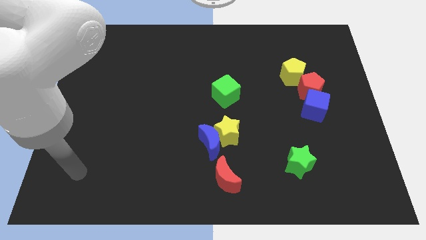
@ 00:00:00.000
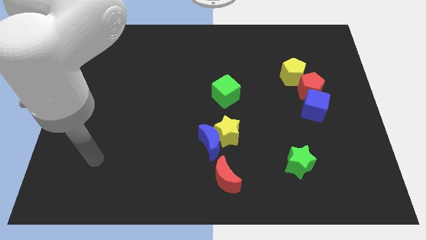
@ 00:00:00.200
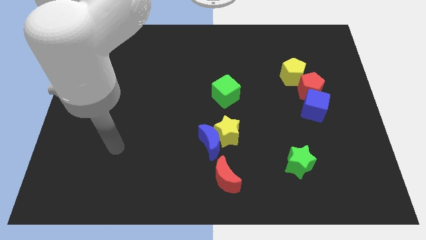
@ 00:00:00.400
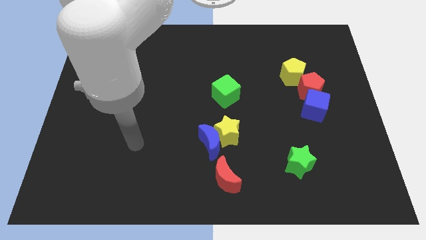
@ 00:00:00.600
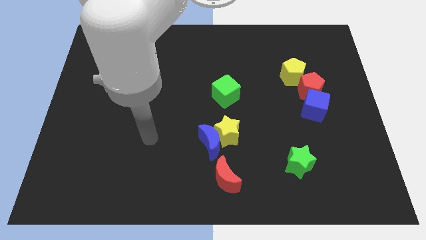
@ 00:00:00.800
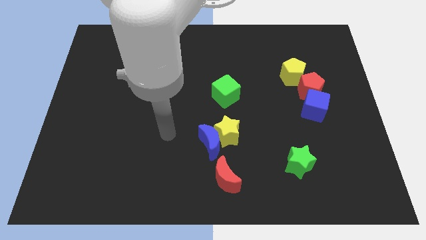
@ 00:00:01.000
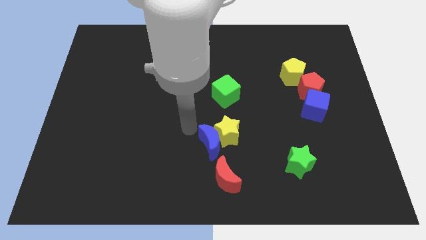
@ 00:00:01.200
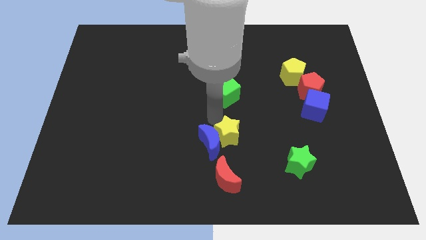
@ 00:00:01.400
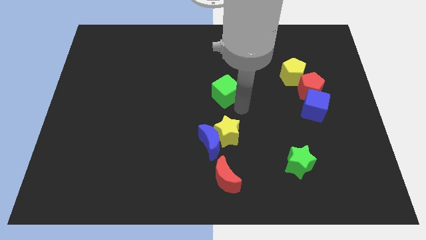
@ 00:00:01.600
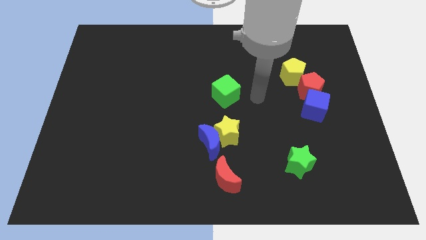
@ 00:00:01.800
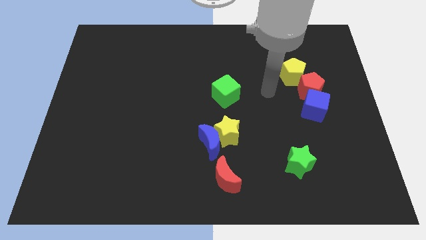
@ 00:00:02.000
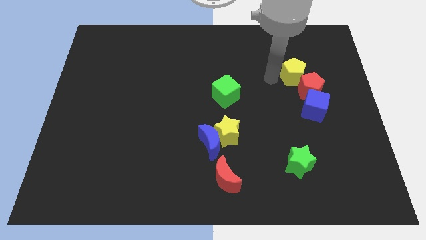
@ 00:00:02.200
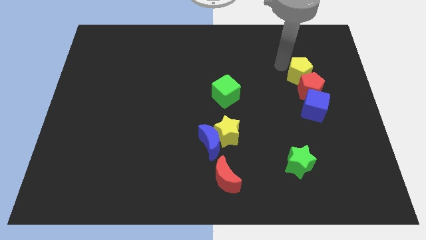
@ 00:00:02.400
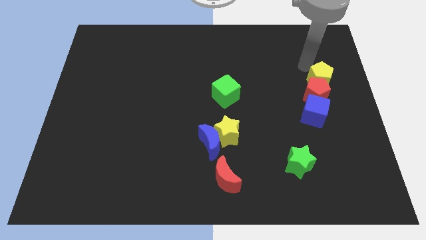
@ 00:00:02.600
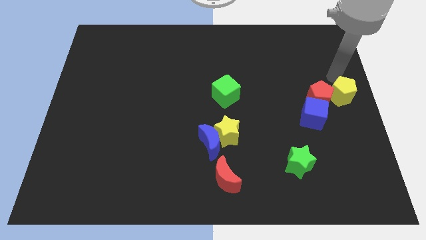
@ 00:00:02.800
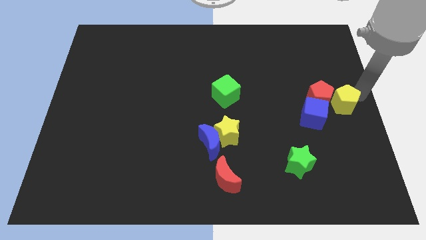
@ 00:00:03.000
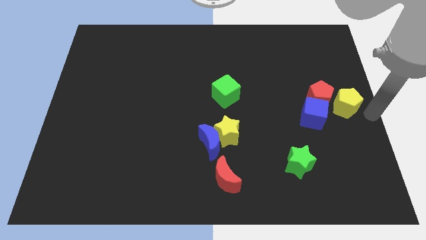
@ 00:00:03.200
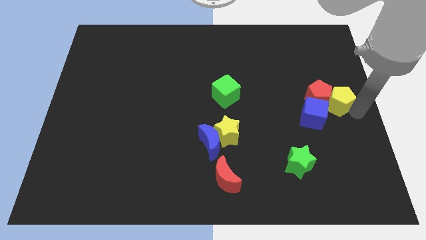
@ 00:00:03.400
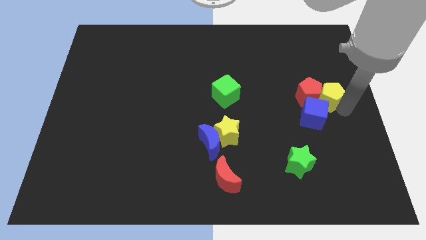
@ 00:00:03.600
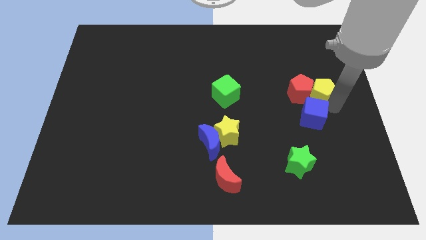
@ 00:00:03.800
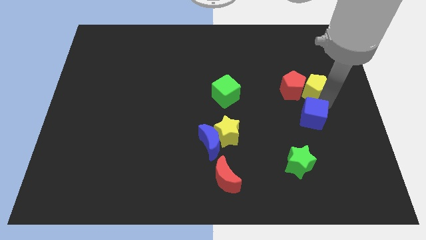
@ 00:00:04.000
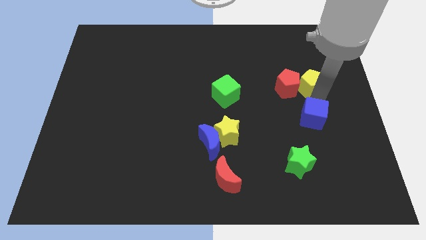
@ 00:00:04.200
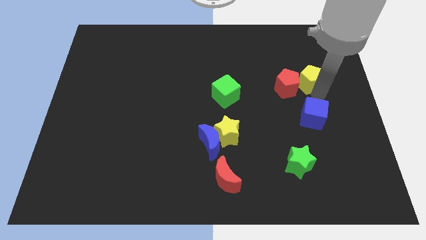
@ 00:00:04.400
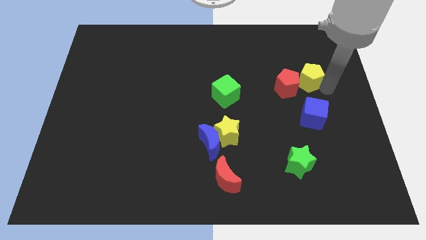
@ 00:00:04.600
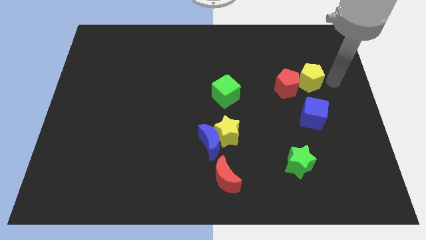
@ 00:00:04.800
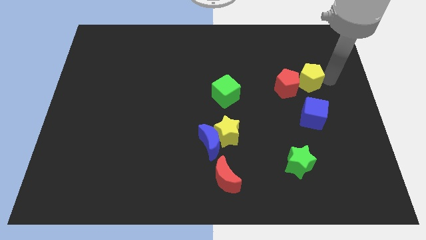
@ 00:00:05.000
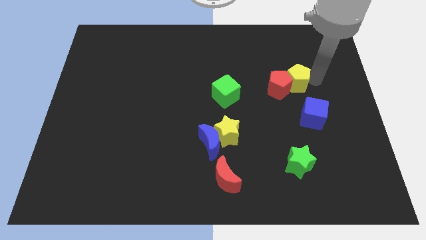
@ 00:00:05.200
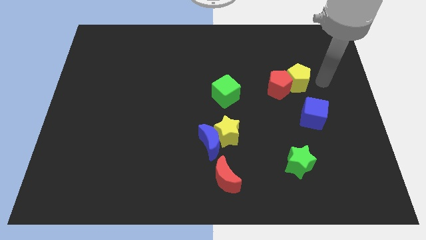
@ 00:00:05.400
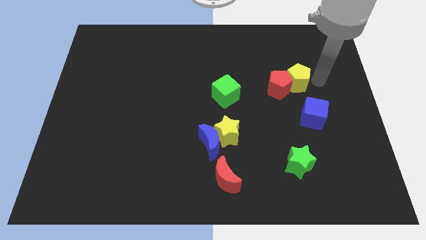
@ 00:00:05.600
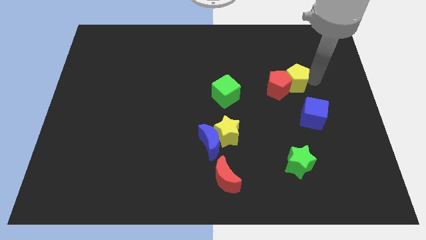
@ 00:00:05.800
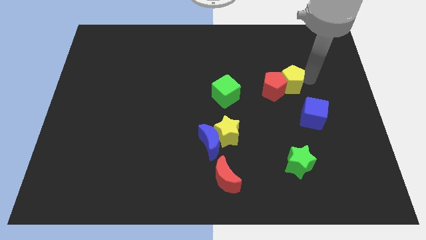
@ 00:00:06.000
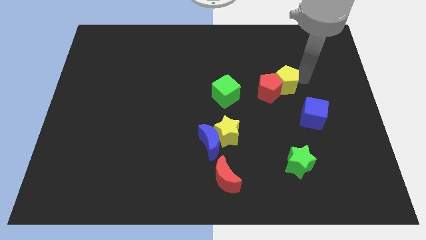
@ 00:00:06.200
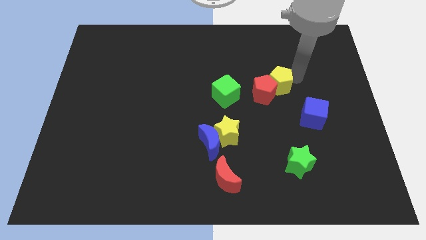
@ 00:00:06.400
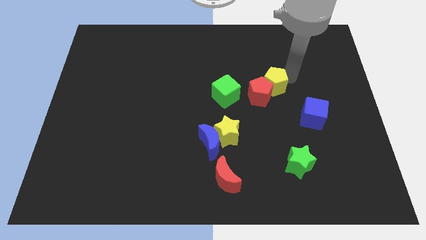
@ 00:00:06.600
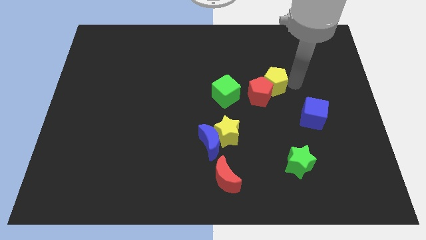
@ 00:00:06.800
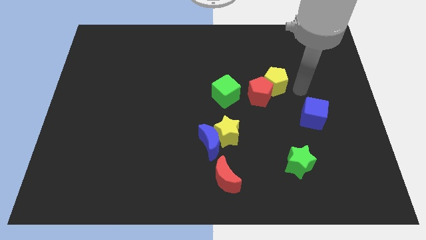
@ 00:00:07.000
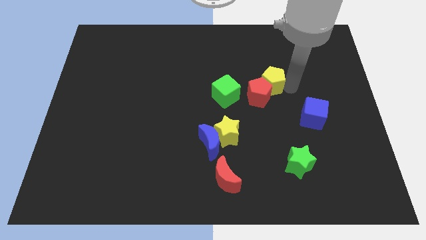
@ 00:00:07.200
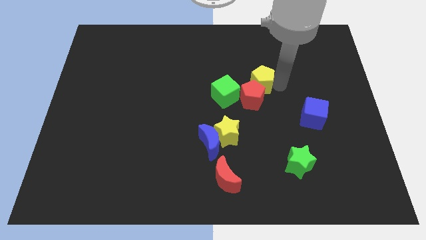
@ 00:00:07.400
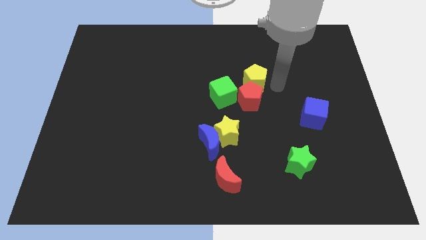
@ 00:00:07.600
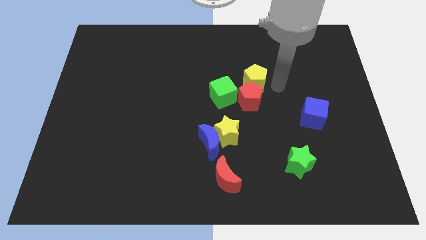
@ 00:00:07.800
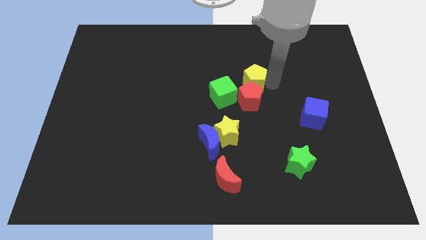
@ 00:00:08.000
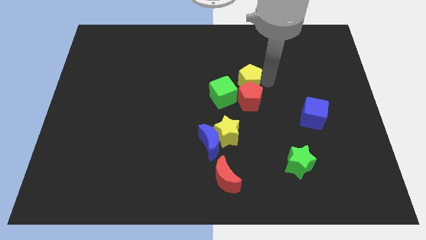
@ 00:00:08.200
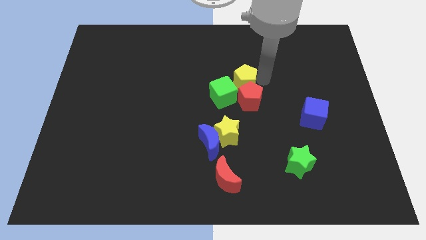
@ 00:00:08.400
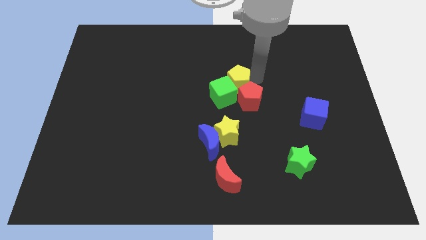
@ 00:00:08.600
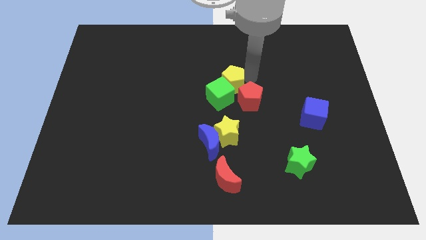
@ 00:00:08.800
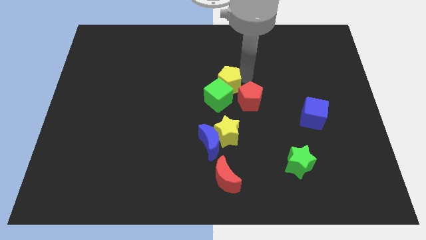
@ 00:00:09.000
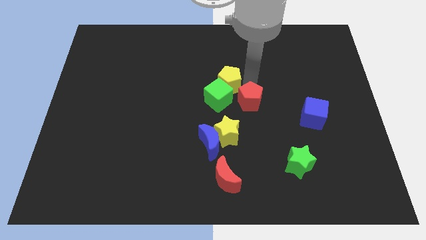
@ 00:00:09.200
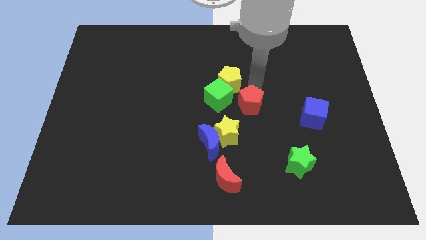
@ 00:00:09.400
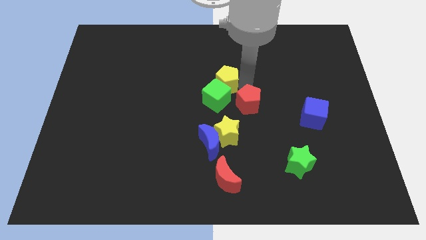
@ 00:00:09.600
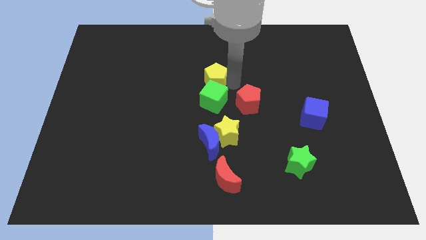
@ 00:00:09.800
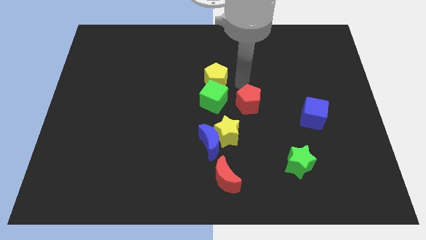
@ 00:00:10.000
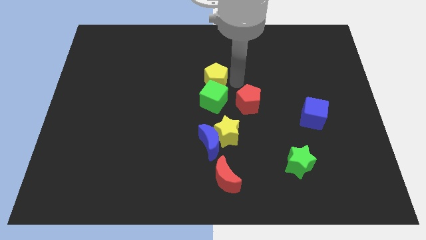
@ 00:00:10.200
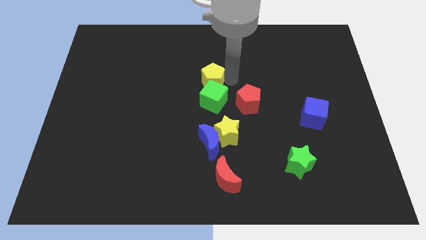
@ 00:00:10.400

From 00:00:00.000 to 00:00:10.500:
push the yellow pentagon to the left

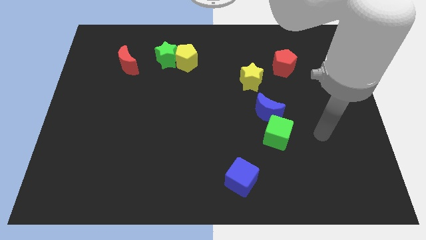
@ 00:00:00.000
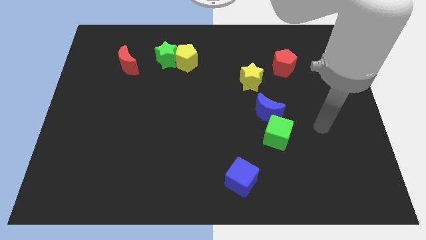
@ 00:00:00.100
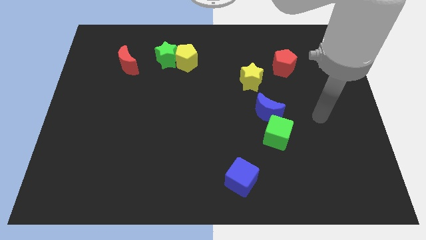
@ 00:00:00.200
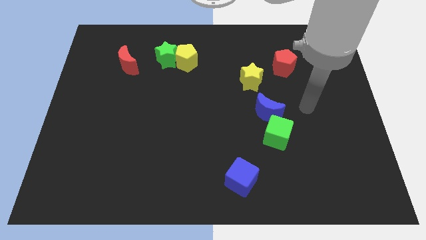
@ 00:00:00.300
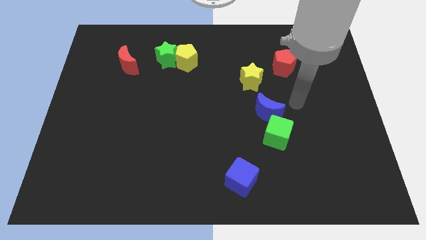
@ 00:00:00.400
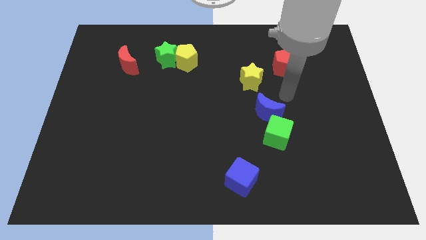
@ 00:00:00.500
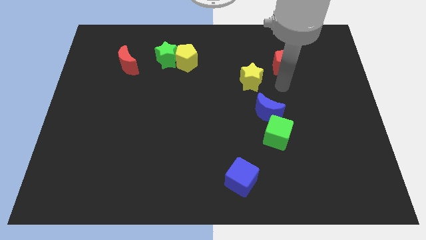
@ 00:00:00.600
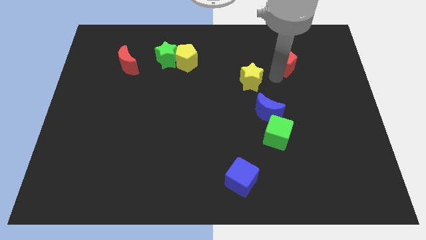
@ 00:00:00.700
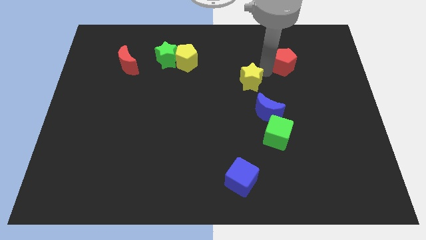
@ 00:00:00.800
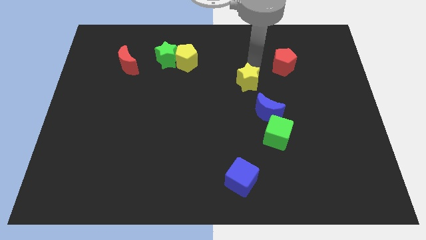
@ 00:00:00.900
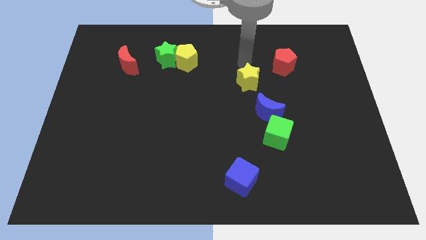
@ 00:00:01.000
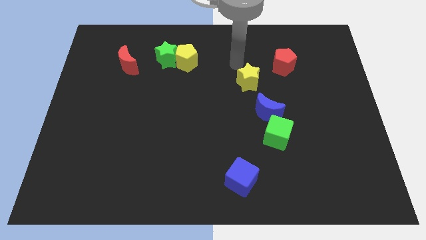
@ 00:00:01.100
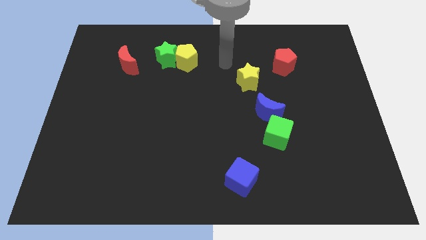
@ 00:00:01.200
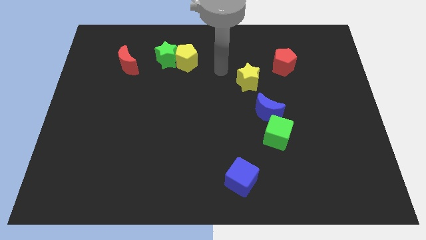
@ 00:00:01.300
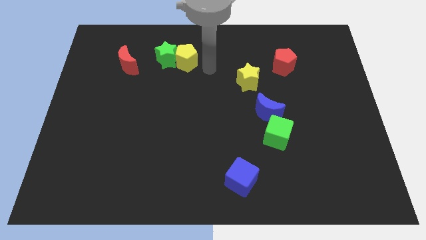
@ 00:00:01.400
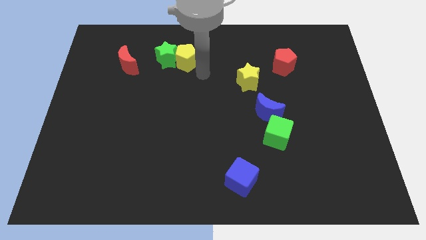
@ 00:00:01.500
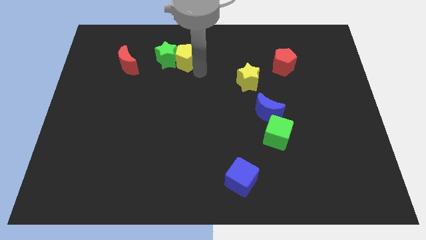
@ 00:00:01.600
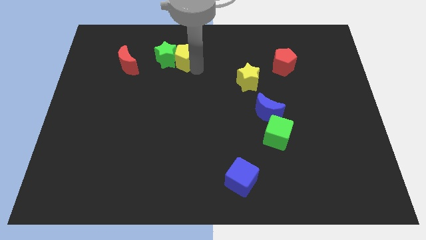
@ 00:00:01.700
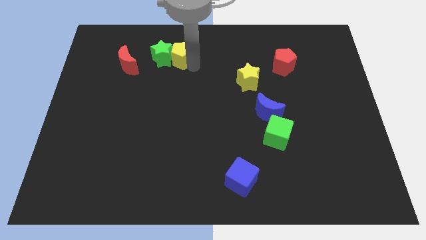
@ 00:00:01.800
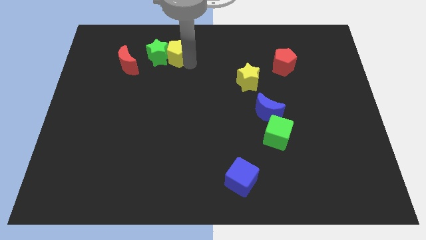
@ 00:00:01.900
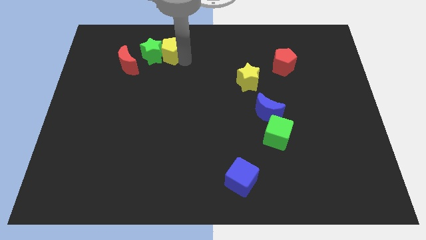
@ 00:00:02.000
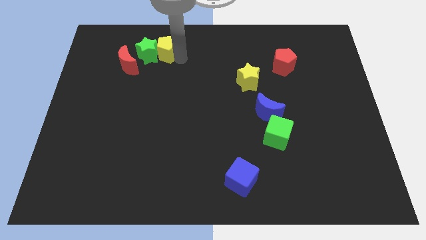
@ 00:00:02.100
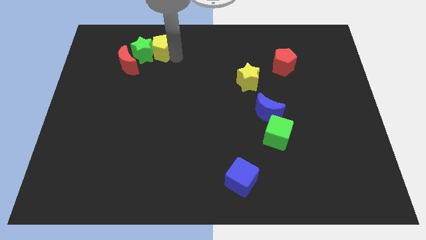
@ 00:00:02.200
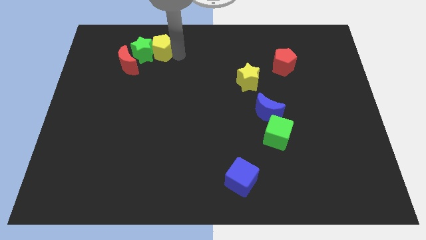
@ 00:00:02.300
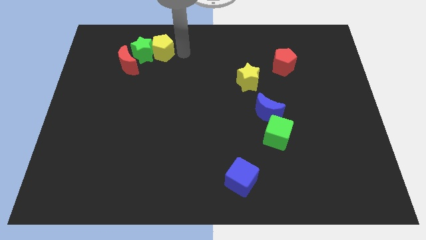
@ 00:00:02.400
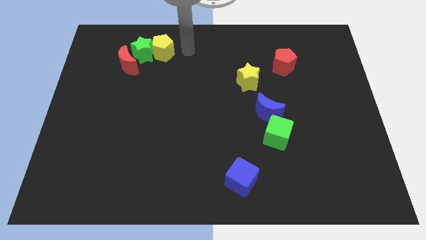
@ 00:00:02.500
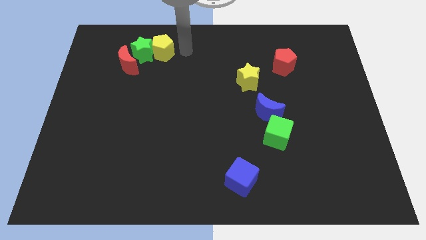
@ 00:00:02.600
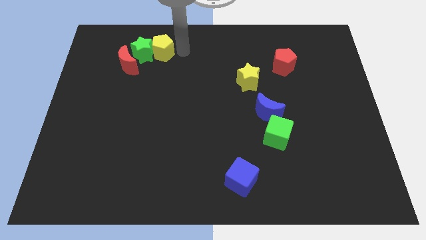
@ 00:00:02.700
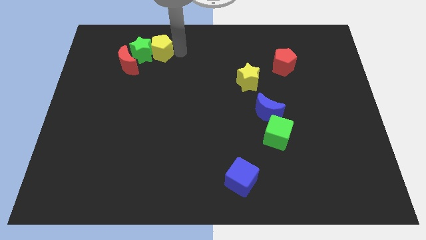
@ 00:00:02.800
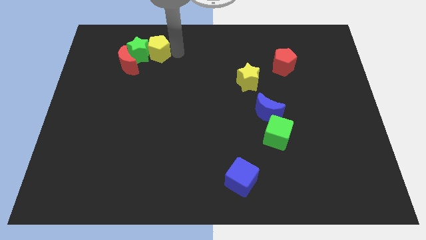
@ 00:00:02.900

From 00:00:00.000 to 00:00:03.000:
move the yellow pentagon a little bit left
